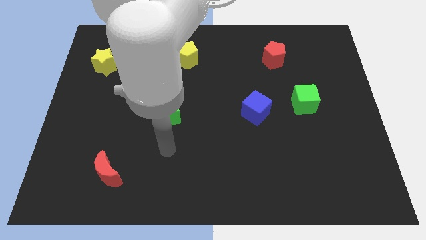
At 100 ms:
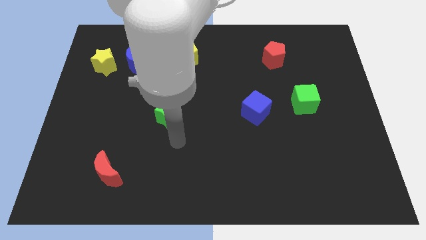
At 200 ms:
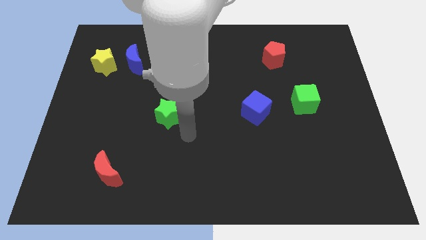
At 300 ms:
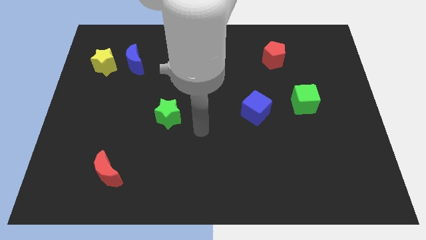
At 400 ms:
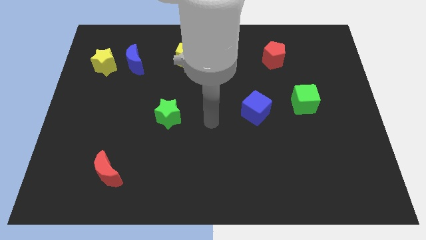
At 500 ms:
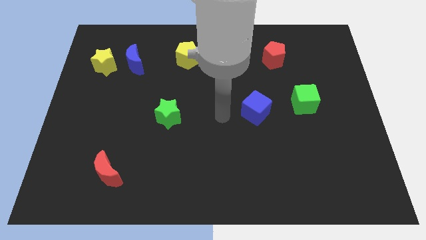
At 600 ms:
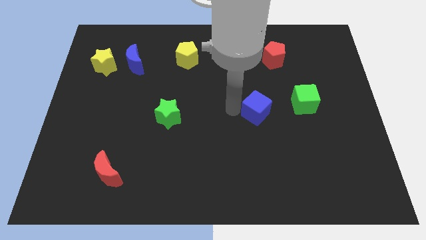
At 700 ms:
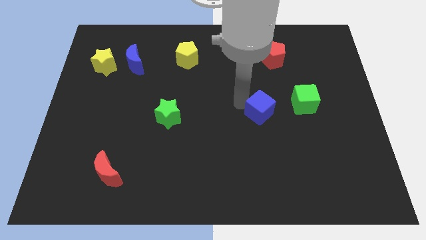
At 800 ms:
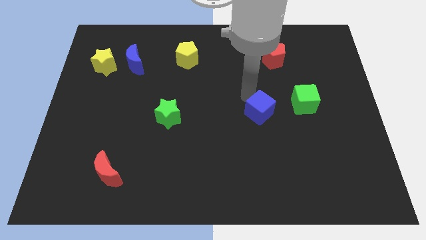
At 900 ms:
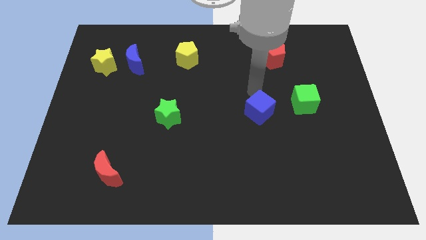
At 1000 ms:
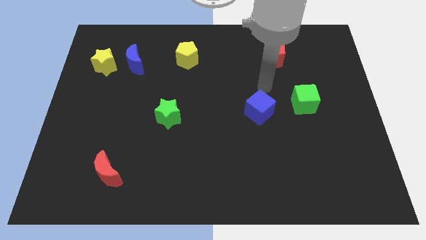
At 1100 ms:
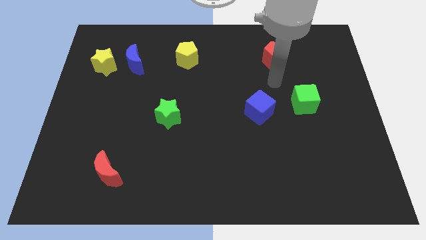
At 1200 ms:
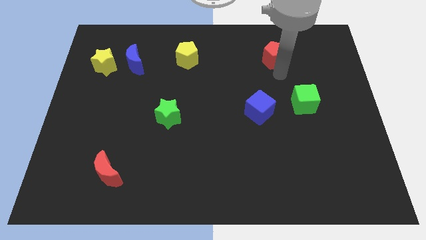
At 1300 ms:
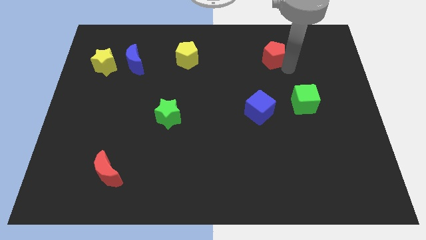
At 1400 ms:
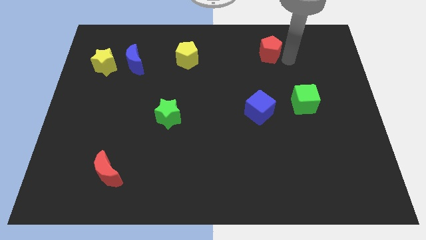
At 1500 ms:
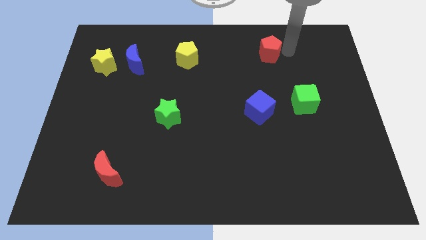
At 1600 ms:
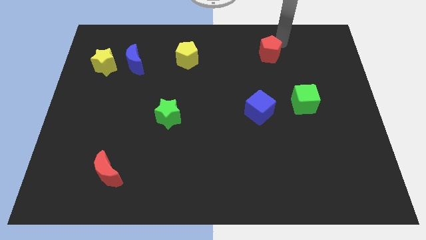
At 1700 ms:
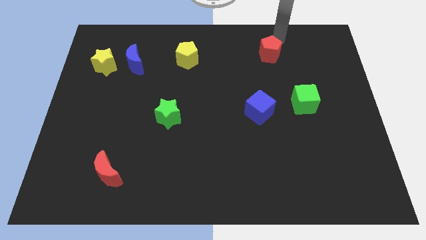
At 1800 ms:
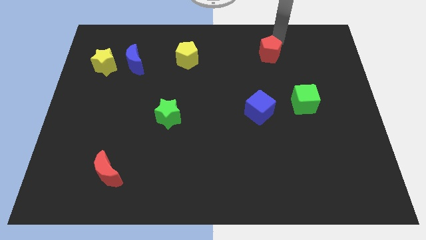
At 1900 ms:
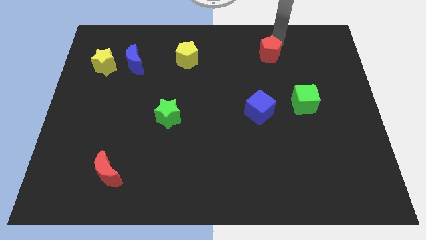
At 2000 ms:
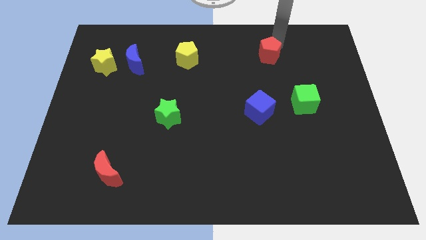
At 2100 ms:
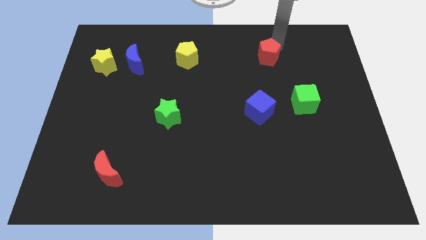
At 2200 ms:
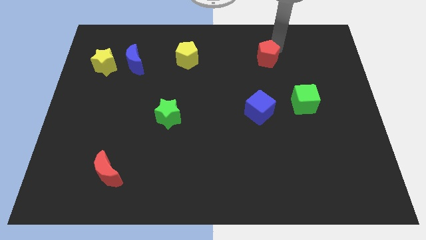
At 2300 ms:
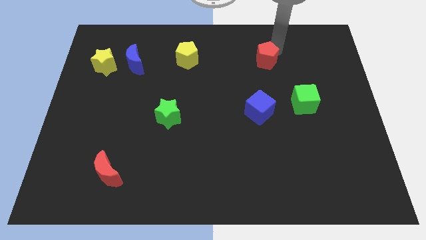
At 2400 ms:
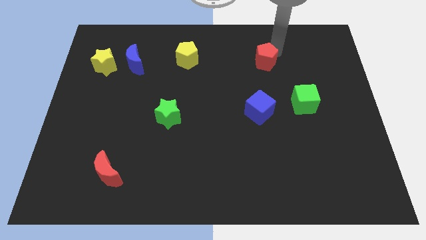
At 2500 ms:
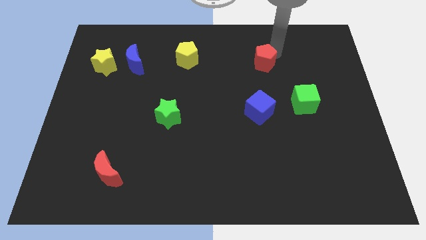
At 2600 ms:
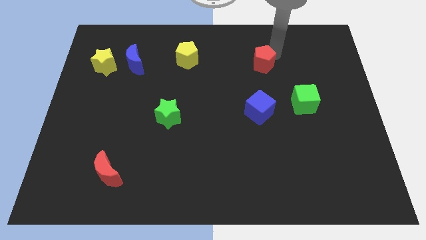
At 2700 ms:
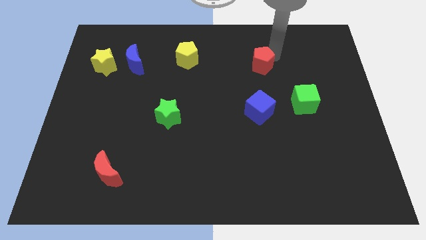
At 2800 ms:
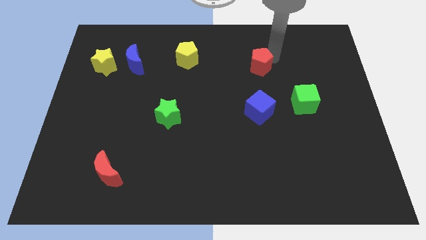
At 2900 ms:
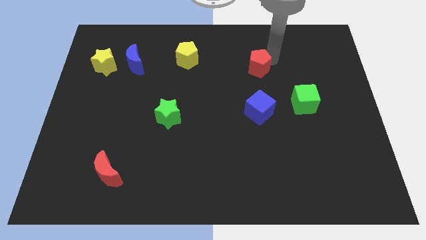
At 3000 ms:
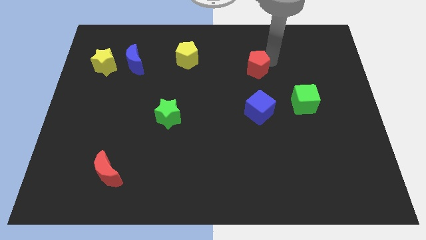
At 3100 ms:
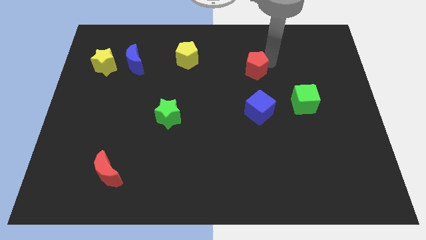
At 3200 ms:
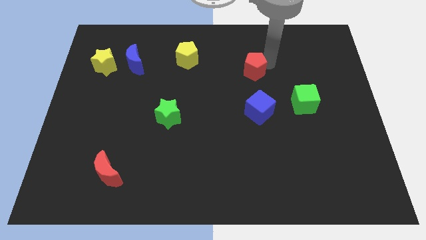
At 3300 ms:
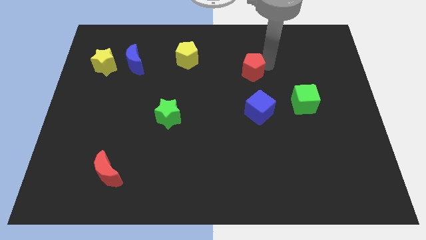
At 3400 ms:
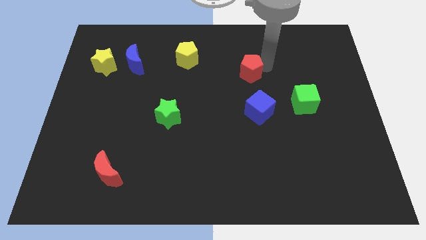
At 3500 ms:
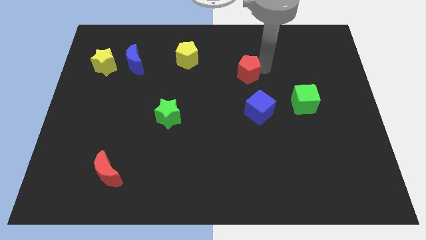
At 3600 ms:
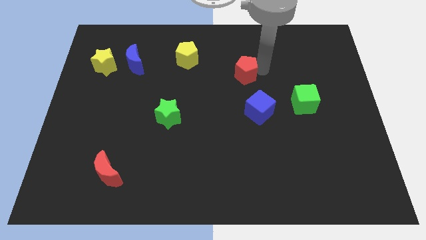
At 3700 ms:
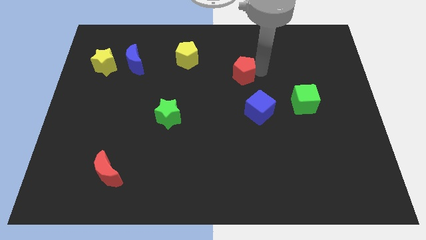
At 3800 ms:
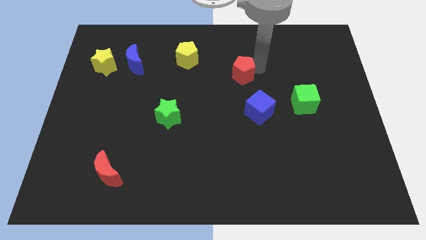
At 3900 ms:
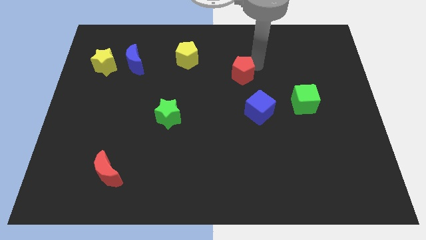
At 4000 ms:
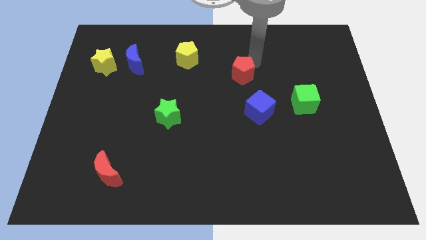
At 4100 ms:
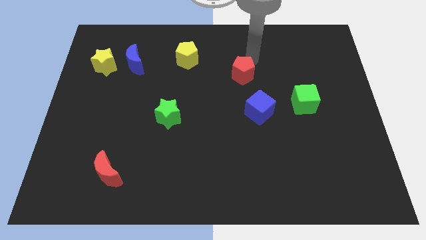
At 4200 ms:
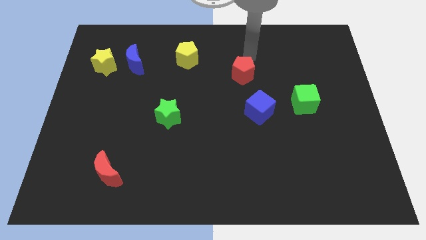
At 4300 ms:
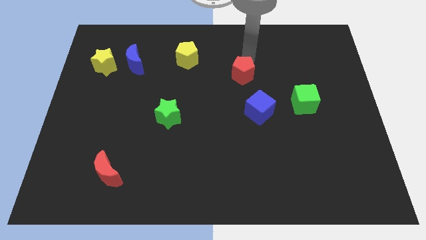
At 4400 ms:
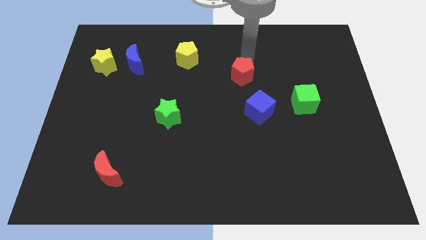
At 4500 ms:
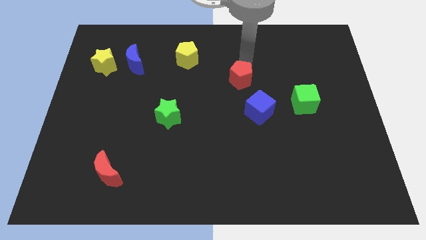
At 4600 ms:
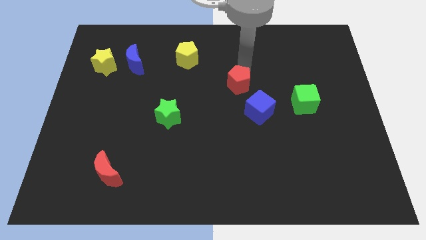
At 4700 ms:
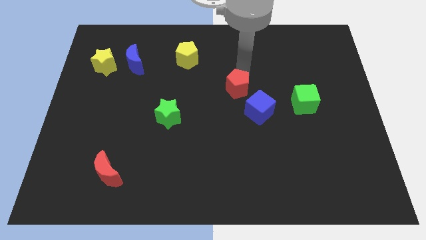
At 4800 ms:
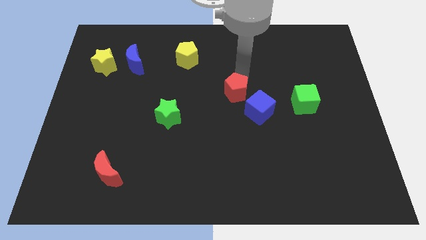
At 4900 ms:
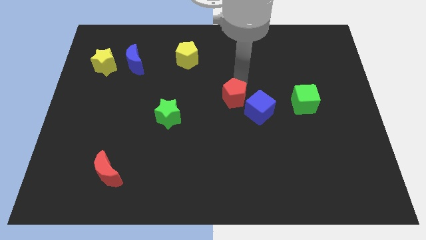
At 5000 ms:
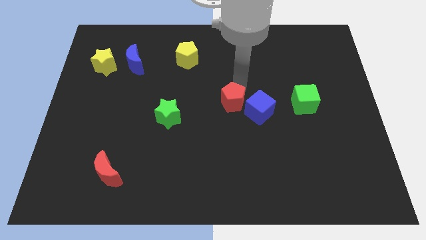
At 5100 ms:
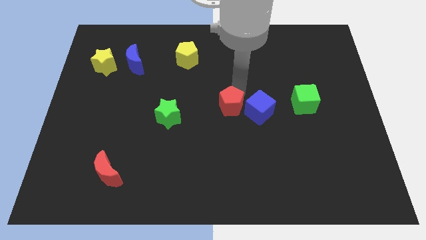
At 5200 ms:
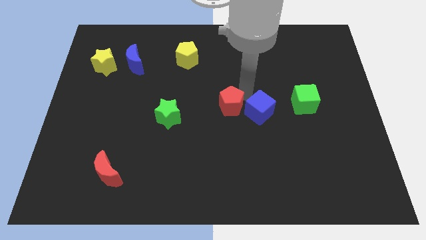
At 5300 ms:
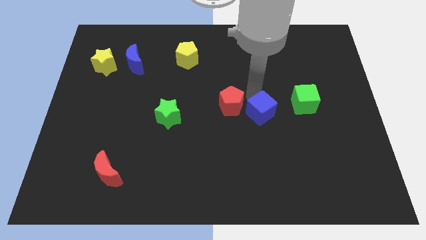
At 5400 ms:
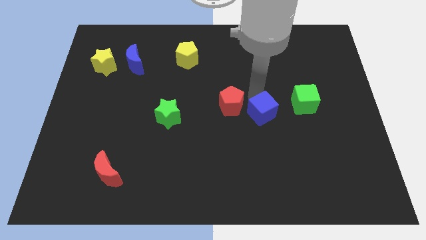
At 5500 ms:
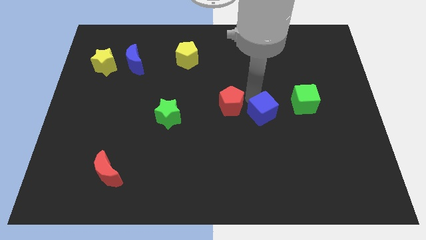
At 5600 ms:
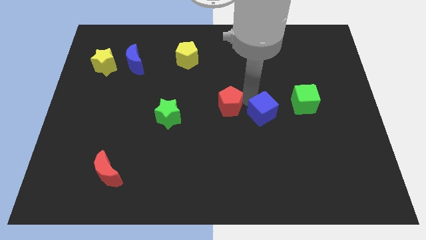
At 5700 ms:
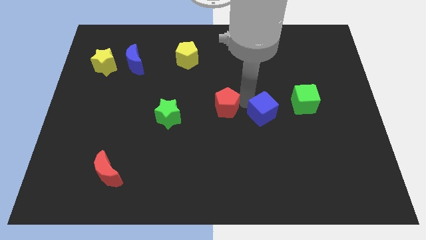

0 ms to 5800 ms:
slide the red pentagon downwards and left

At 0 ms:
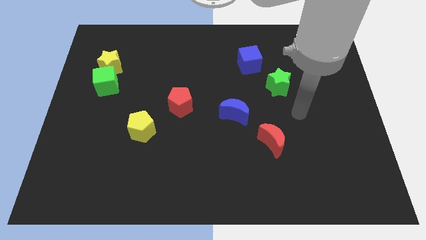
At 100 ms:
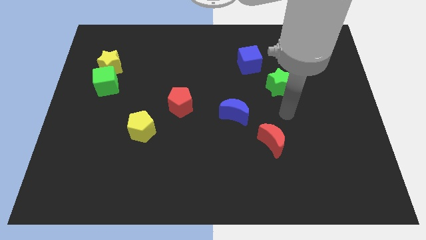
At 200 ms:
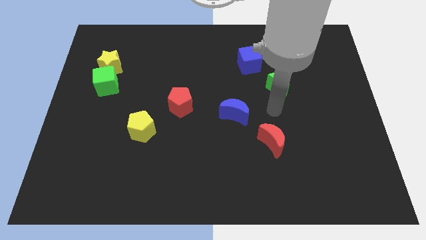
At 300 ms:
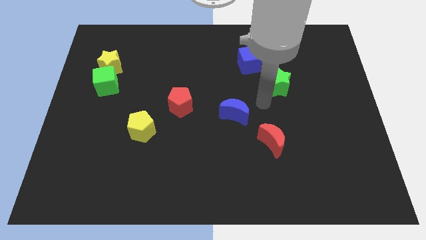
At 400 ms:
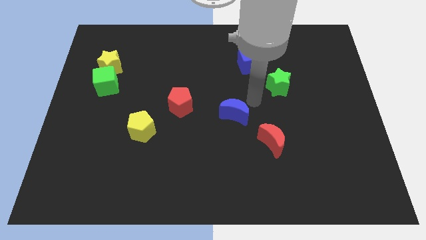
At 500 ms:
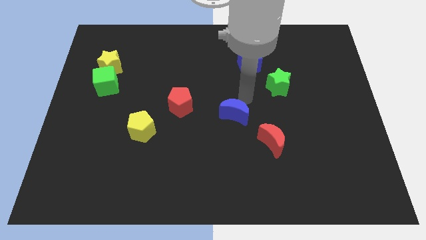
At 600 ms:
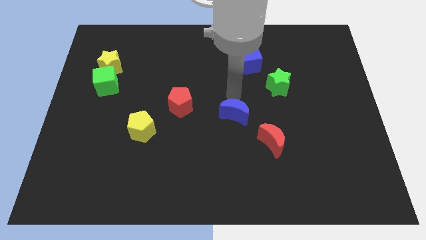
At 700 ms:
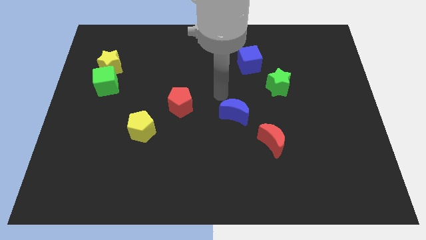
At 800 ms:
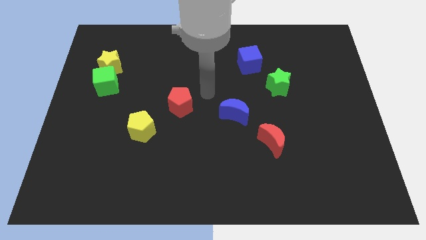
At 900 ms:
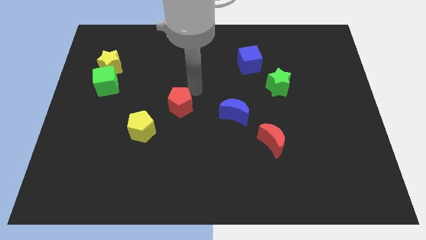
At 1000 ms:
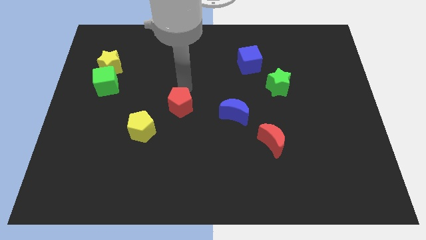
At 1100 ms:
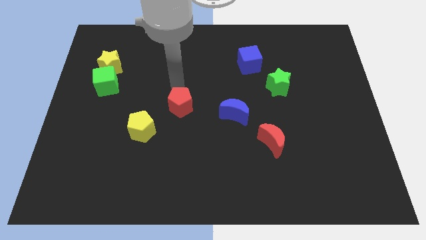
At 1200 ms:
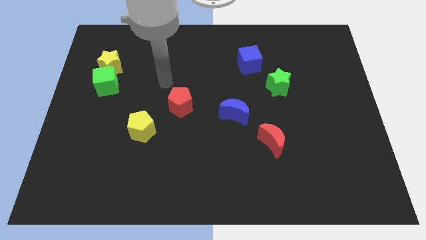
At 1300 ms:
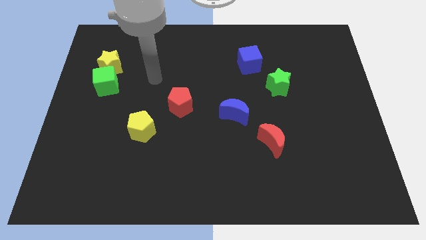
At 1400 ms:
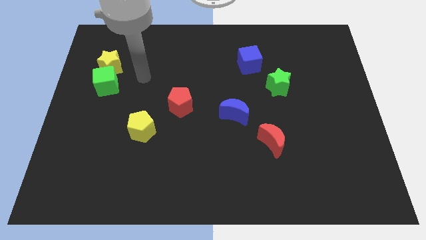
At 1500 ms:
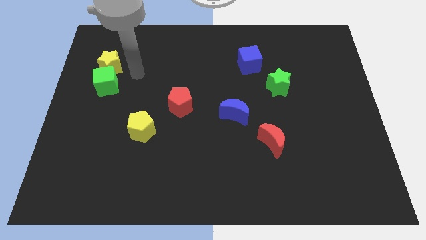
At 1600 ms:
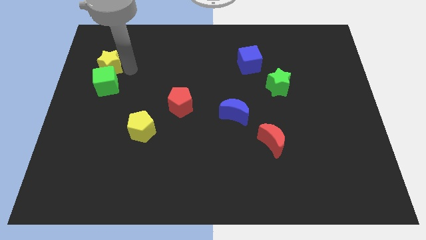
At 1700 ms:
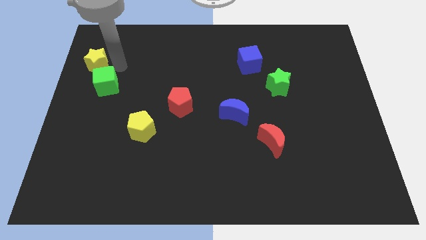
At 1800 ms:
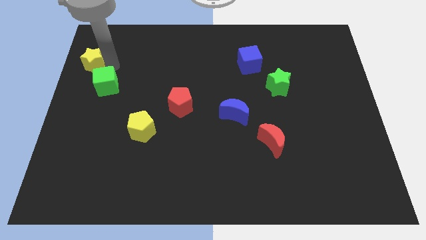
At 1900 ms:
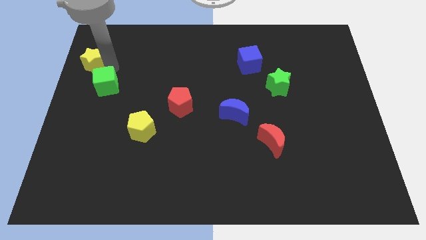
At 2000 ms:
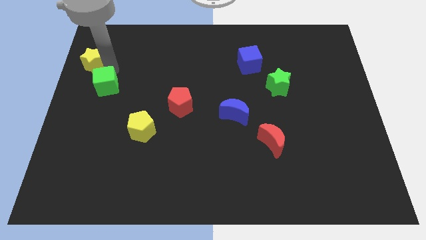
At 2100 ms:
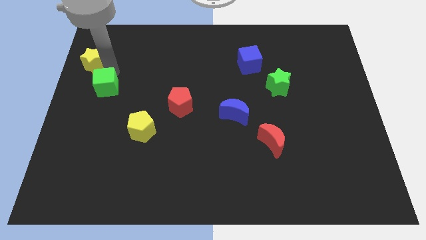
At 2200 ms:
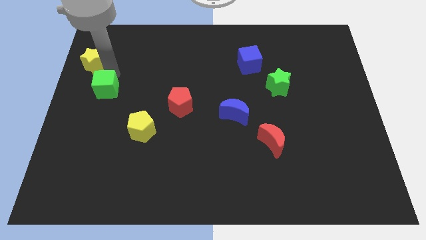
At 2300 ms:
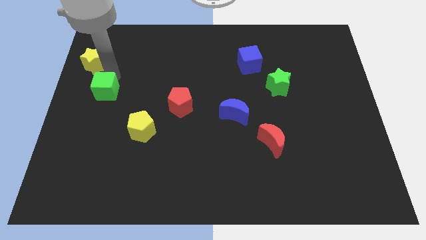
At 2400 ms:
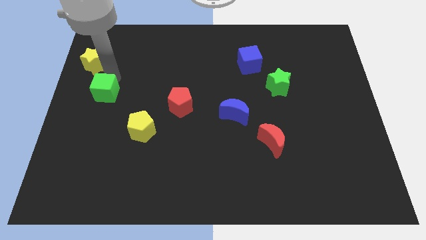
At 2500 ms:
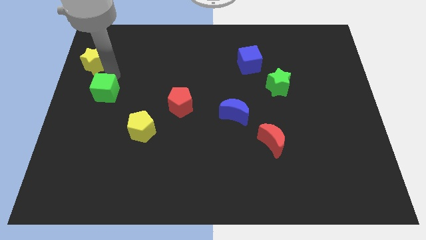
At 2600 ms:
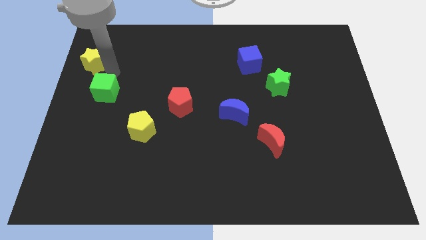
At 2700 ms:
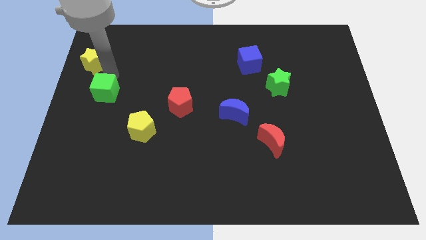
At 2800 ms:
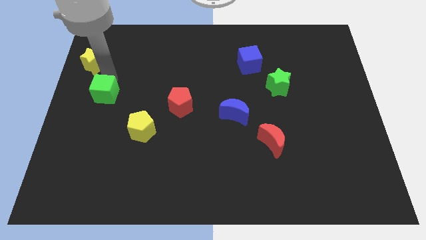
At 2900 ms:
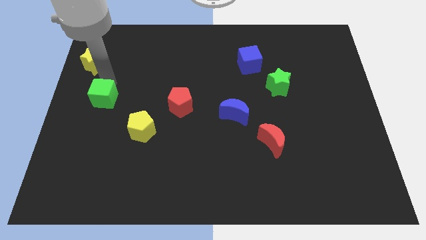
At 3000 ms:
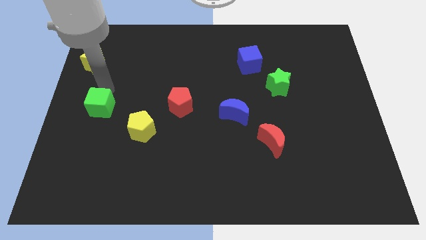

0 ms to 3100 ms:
slide the green cube a little bit downwards
